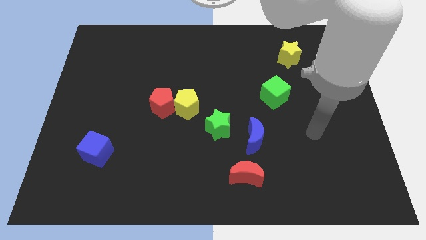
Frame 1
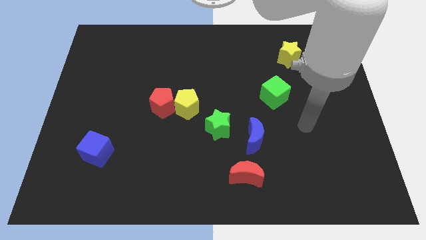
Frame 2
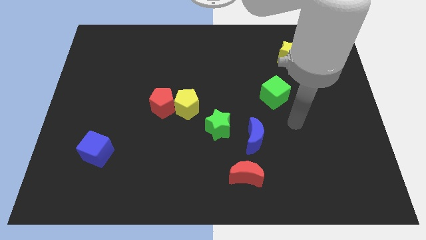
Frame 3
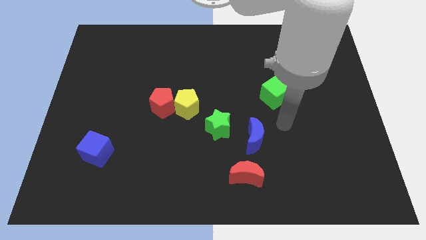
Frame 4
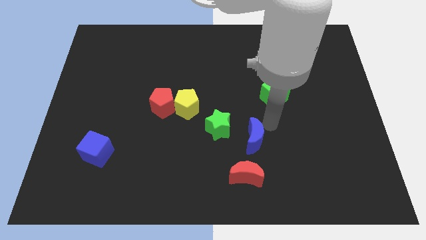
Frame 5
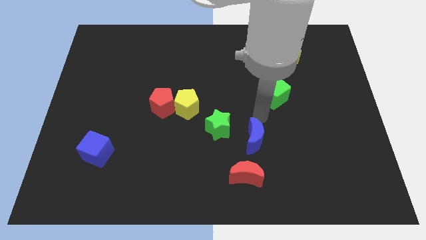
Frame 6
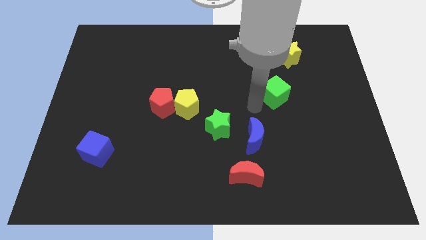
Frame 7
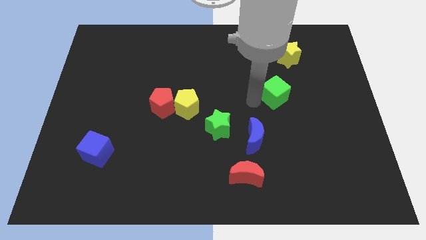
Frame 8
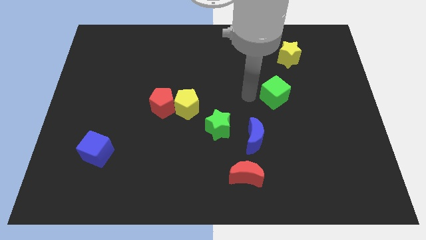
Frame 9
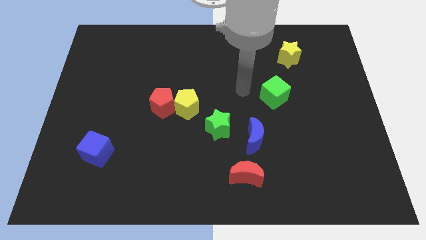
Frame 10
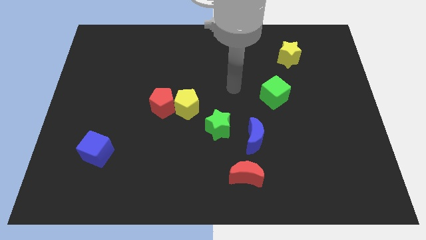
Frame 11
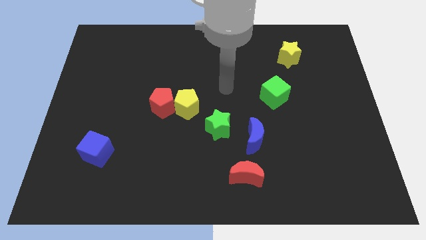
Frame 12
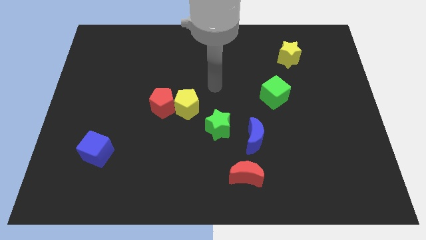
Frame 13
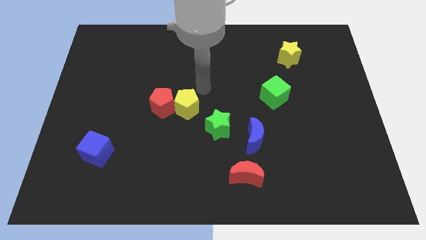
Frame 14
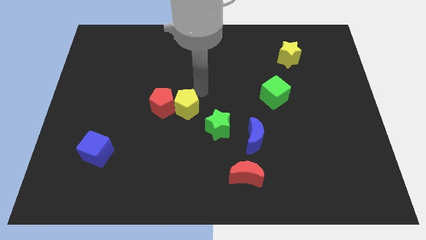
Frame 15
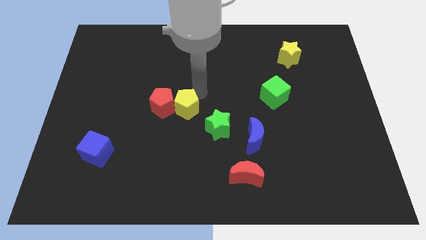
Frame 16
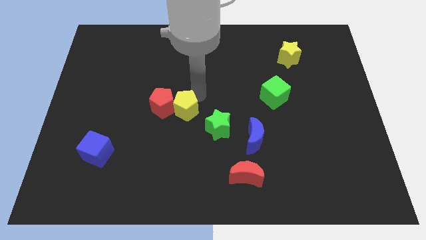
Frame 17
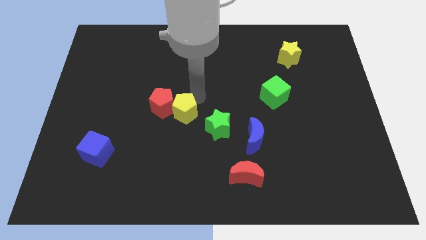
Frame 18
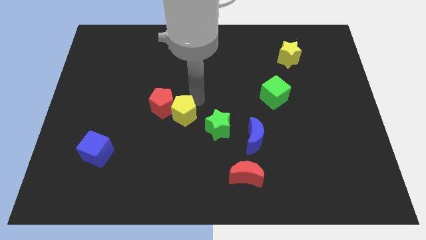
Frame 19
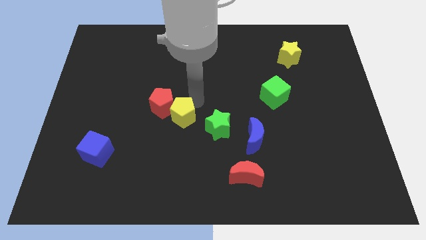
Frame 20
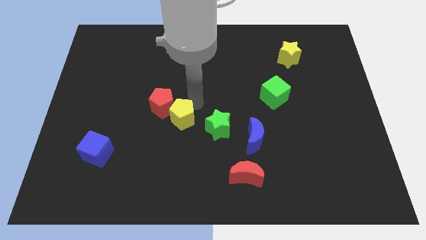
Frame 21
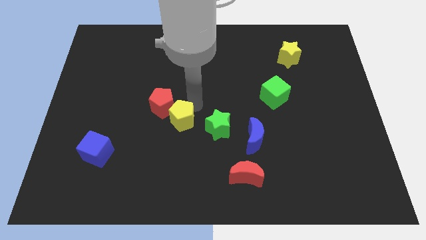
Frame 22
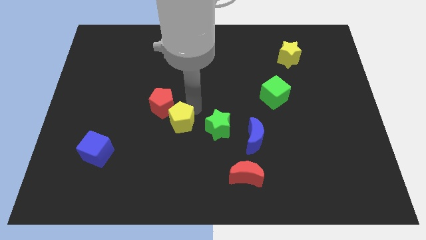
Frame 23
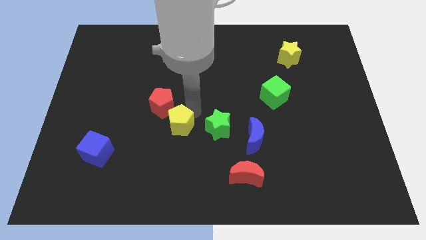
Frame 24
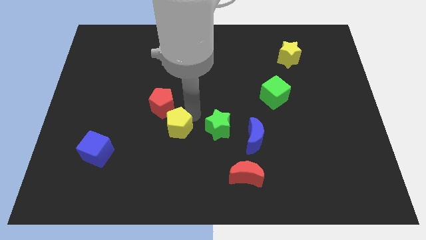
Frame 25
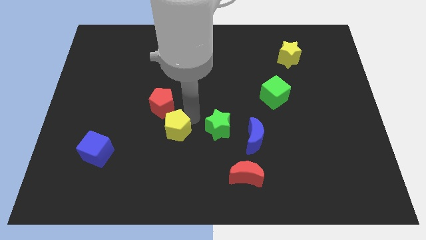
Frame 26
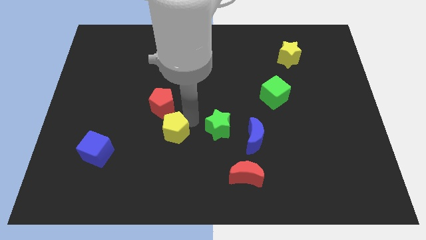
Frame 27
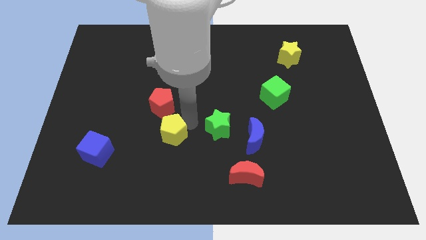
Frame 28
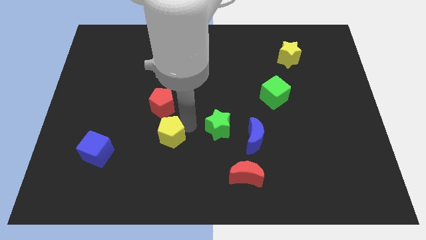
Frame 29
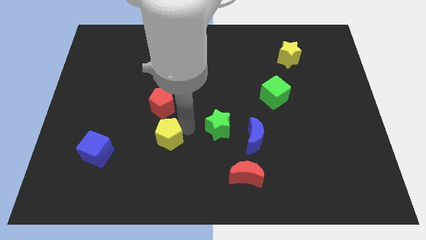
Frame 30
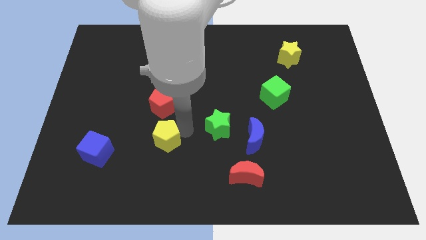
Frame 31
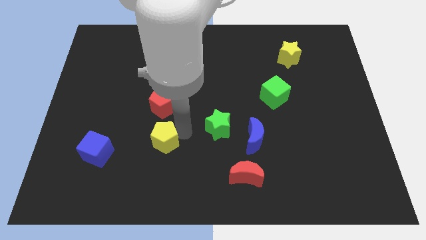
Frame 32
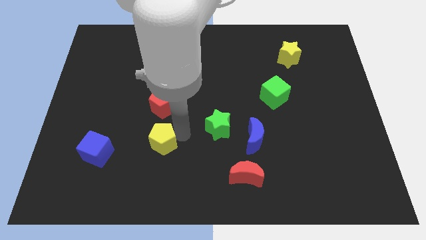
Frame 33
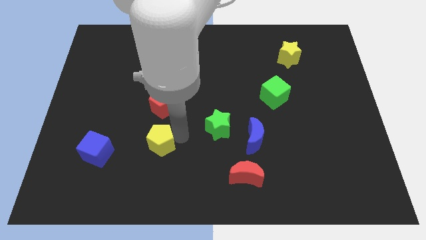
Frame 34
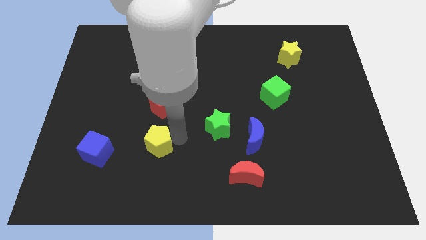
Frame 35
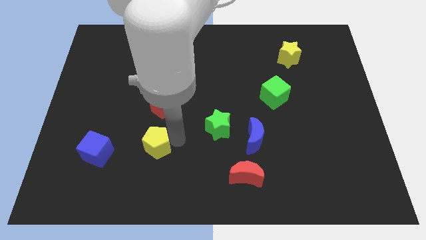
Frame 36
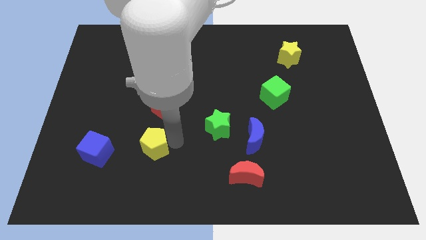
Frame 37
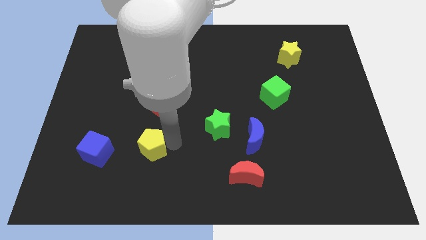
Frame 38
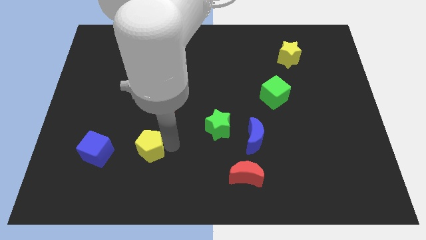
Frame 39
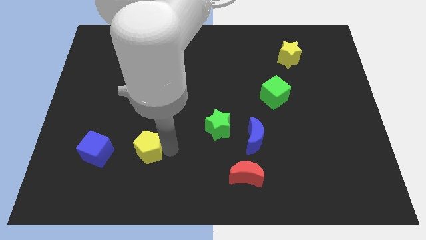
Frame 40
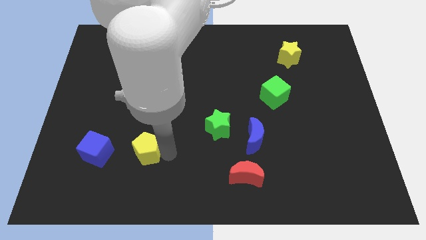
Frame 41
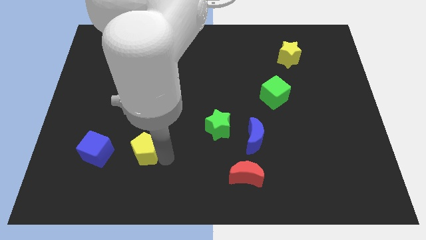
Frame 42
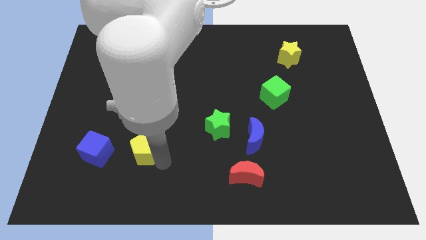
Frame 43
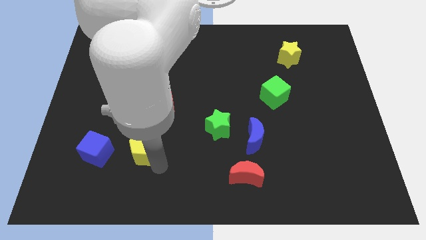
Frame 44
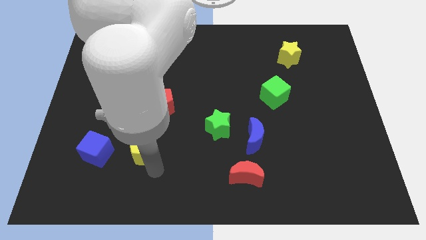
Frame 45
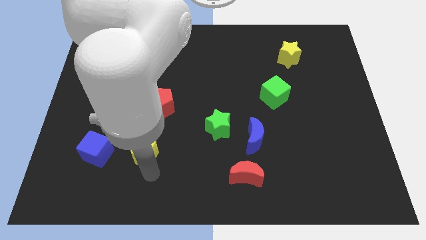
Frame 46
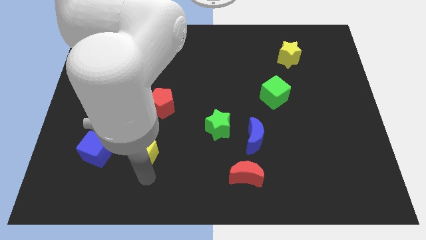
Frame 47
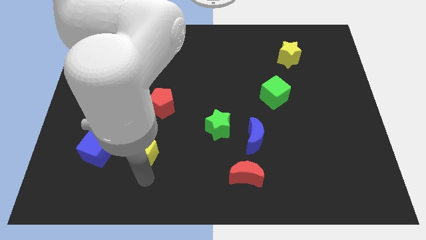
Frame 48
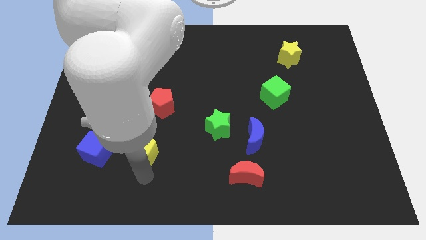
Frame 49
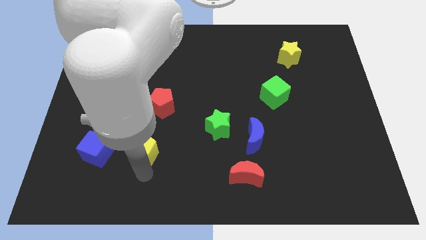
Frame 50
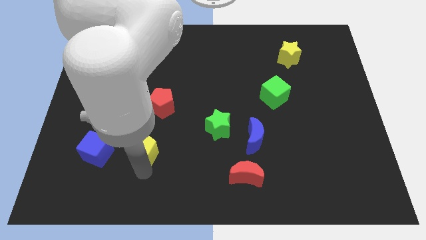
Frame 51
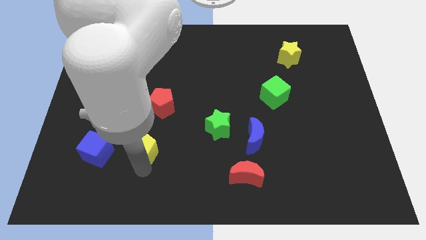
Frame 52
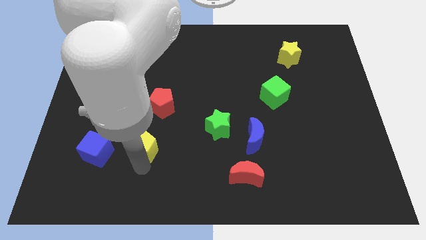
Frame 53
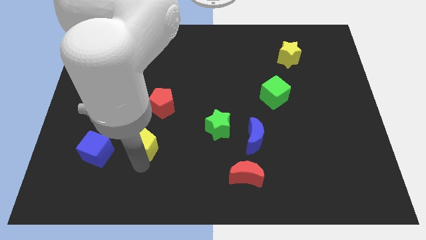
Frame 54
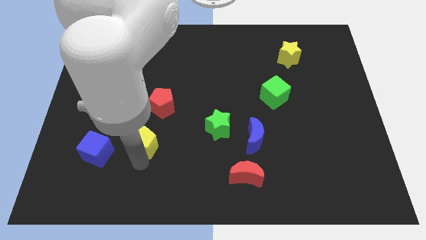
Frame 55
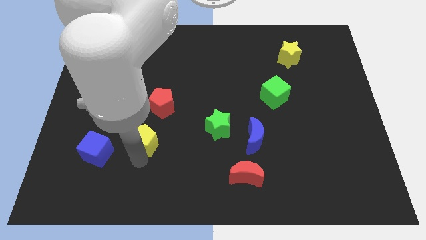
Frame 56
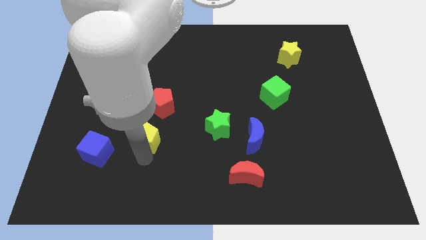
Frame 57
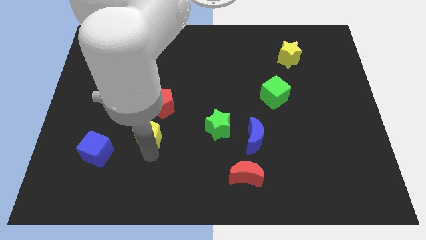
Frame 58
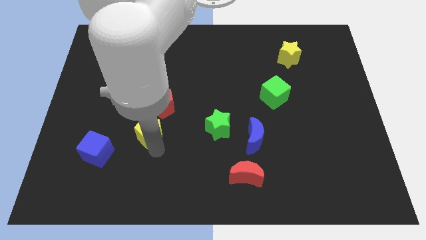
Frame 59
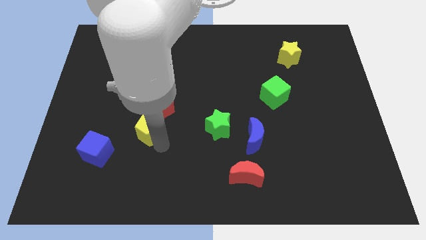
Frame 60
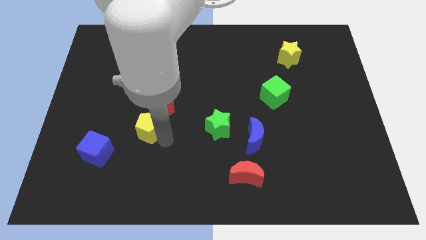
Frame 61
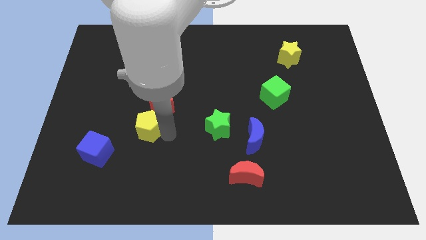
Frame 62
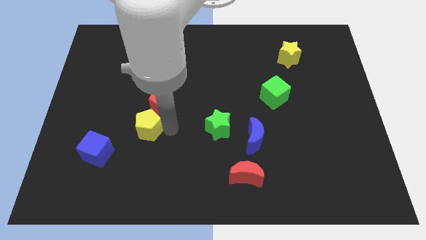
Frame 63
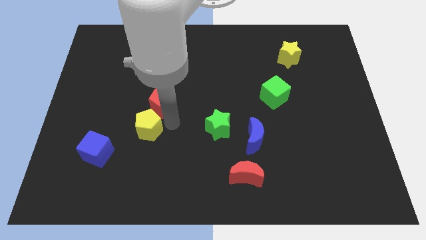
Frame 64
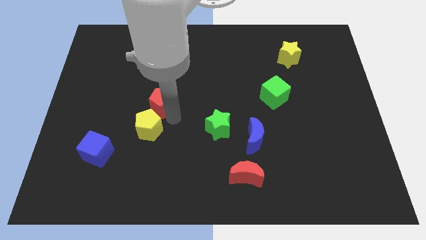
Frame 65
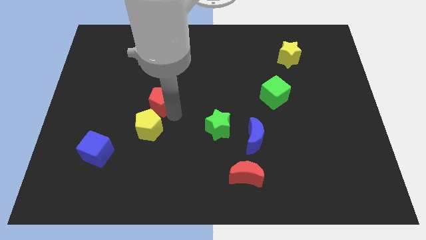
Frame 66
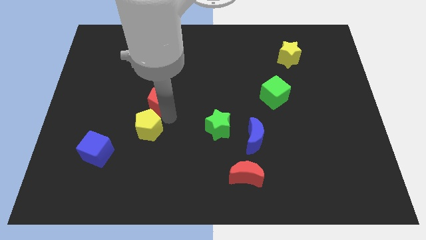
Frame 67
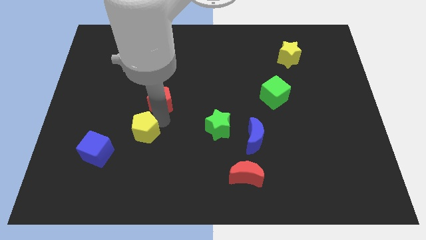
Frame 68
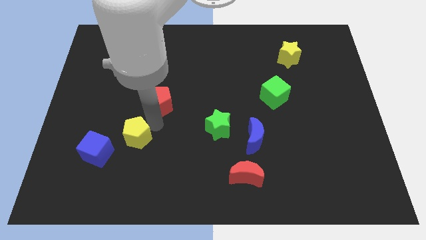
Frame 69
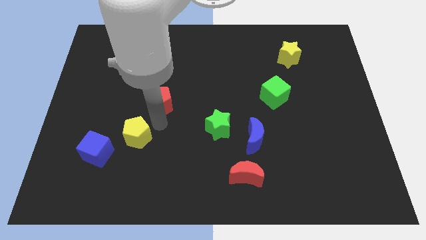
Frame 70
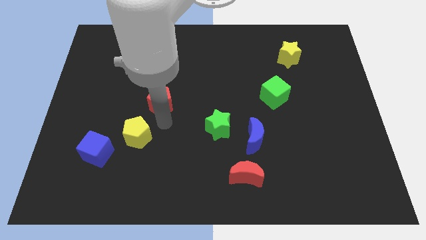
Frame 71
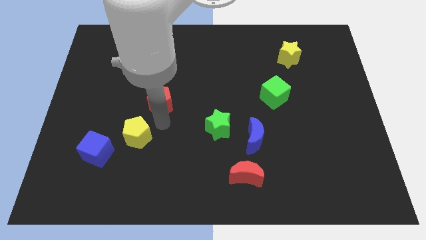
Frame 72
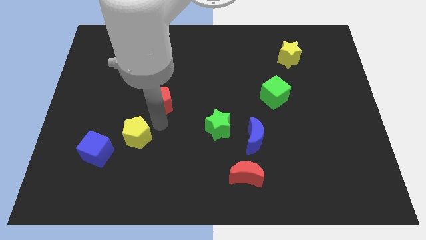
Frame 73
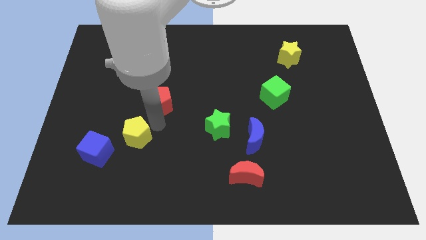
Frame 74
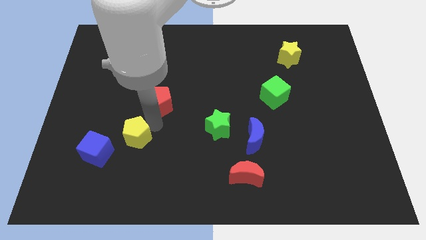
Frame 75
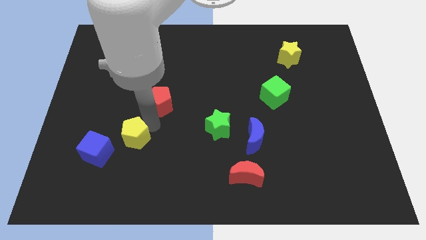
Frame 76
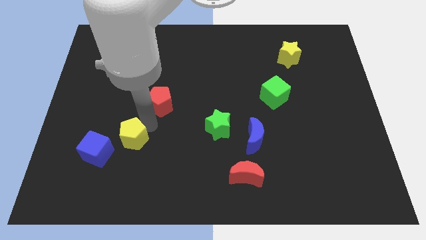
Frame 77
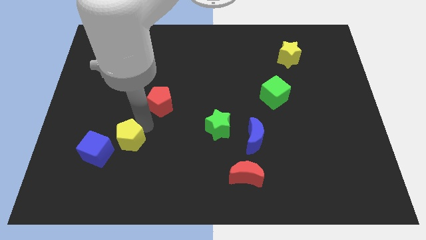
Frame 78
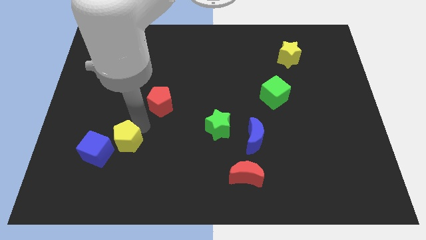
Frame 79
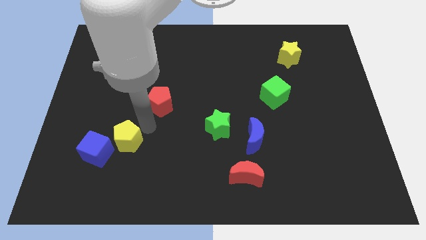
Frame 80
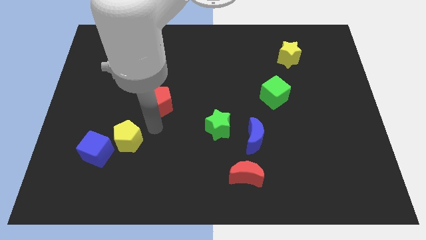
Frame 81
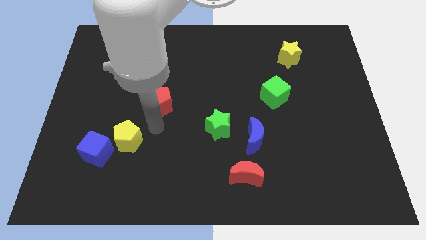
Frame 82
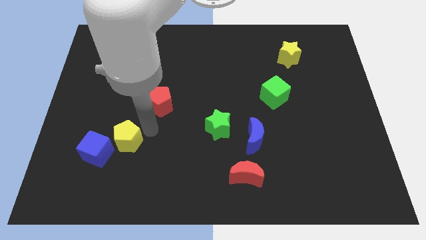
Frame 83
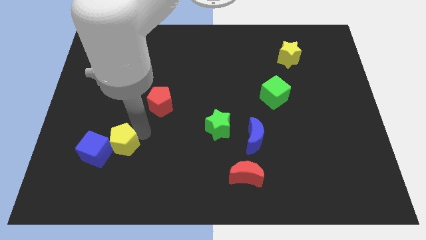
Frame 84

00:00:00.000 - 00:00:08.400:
put the yellow pentagon next to the blue cube
